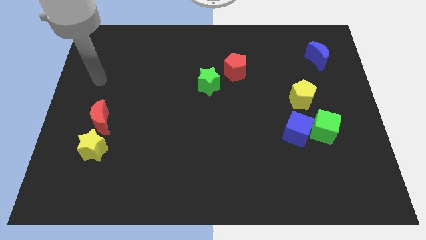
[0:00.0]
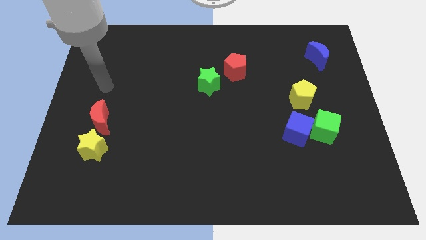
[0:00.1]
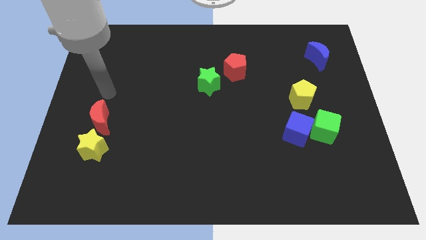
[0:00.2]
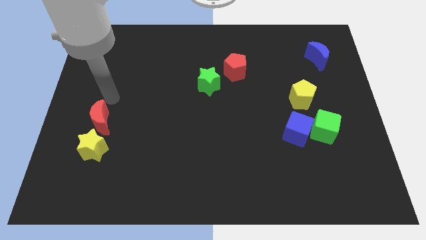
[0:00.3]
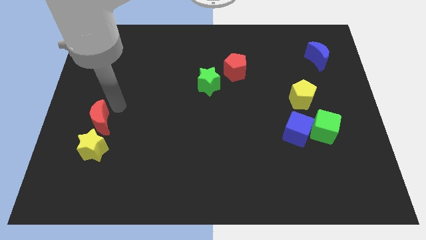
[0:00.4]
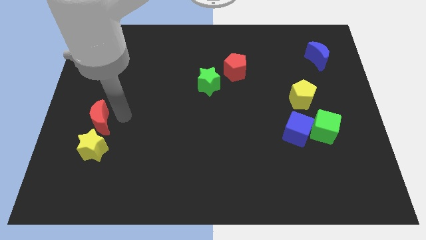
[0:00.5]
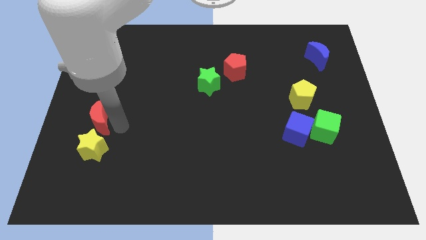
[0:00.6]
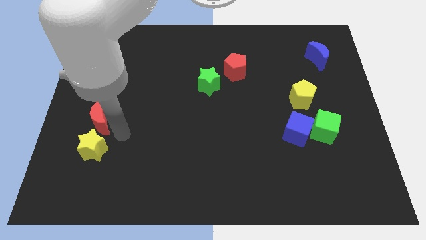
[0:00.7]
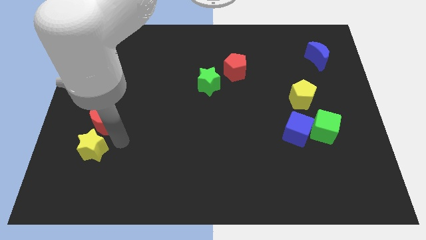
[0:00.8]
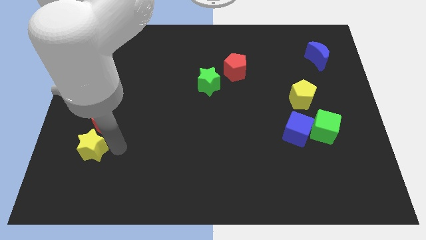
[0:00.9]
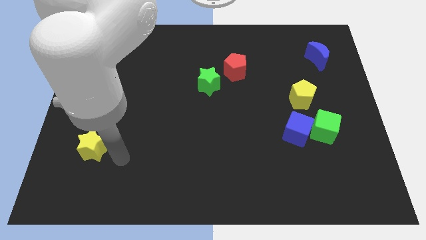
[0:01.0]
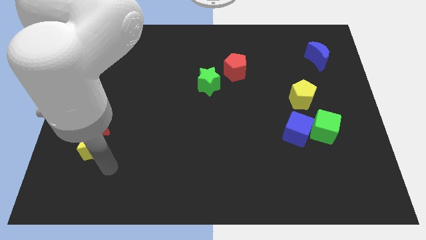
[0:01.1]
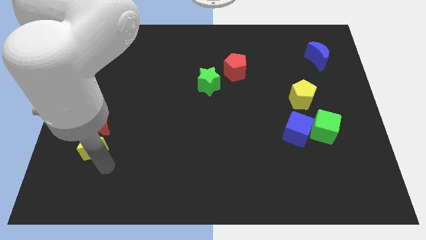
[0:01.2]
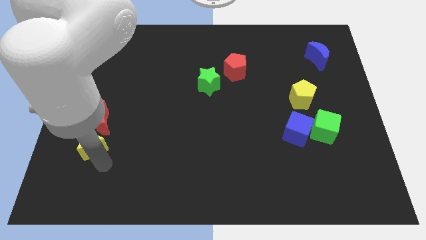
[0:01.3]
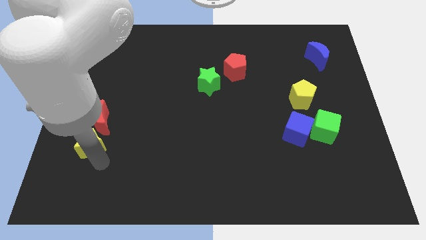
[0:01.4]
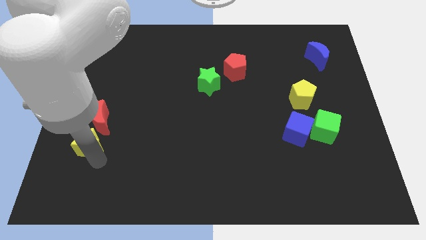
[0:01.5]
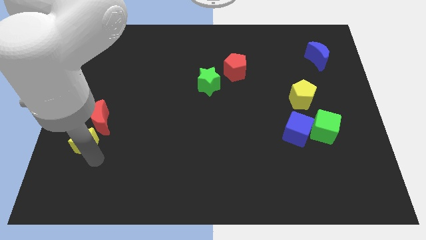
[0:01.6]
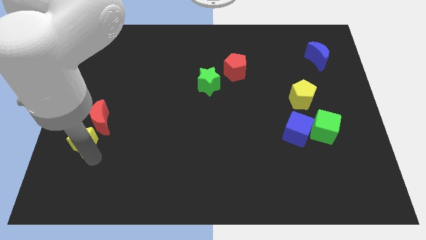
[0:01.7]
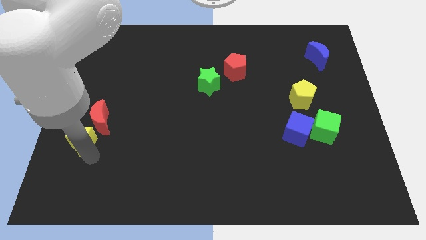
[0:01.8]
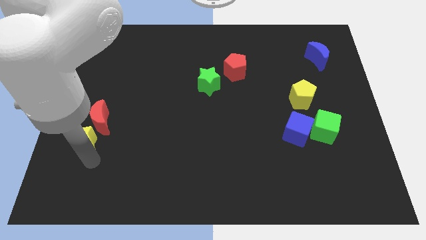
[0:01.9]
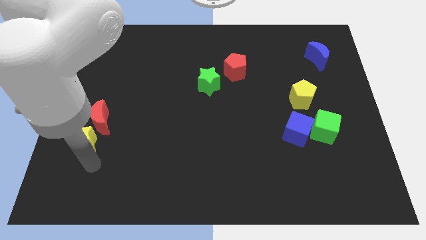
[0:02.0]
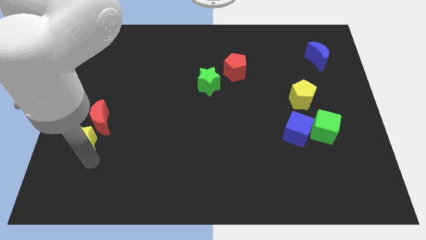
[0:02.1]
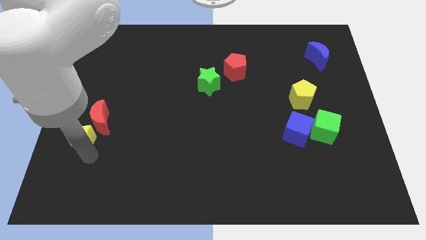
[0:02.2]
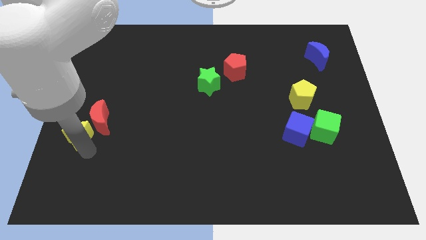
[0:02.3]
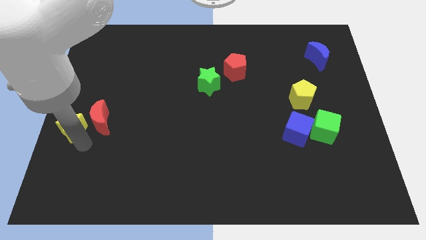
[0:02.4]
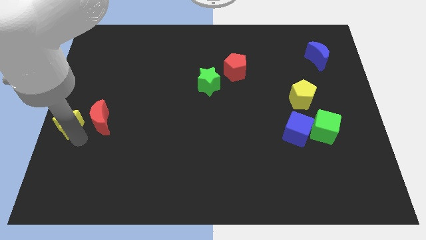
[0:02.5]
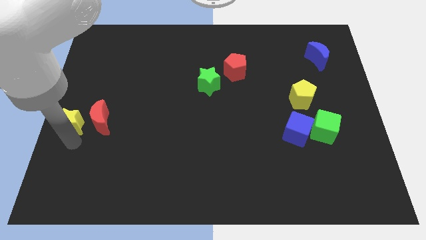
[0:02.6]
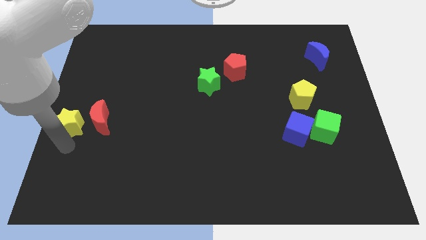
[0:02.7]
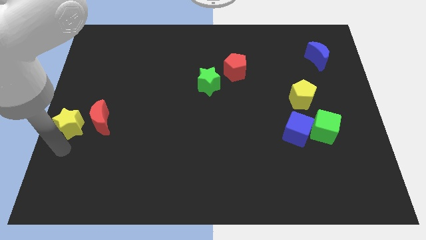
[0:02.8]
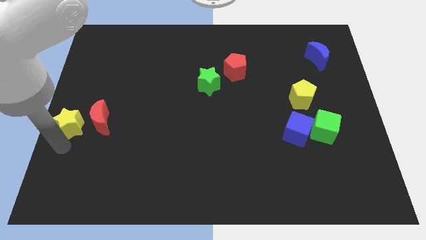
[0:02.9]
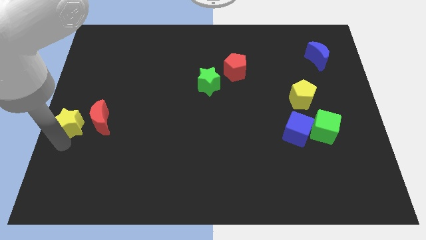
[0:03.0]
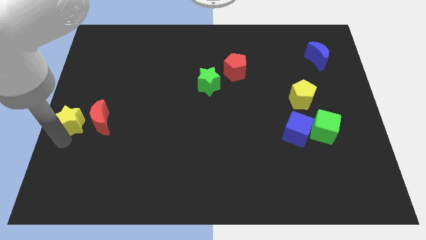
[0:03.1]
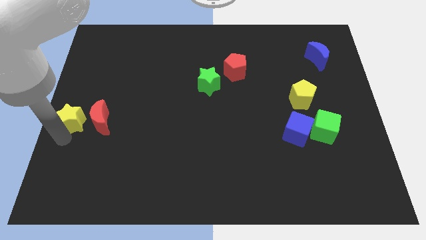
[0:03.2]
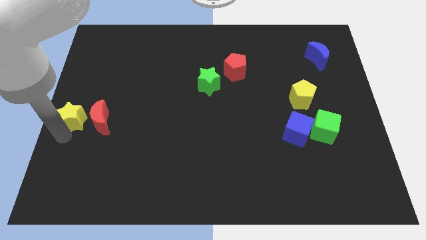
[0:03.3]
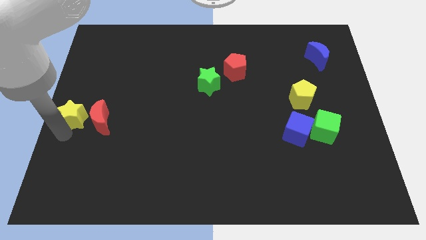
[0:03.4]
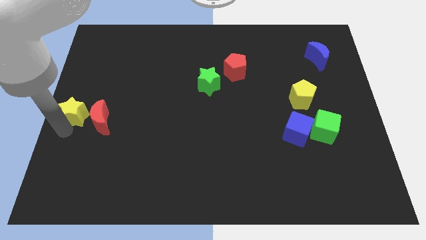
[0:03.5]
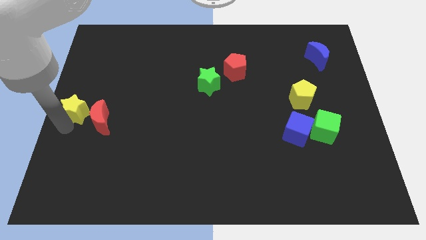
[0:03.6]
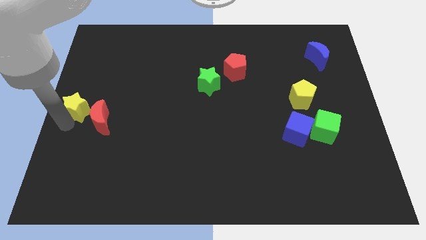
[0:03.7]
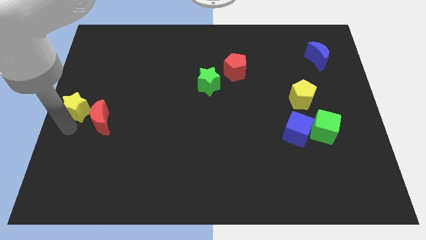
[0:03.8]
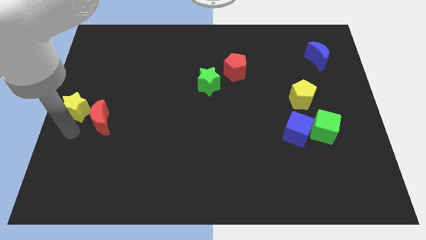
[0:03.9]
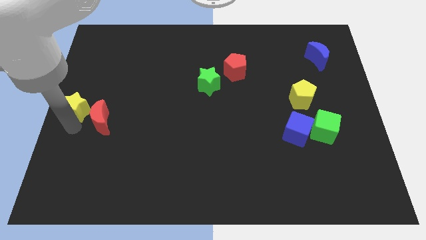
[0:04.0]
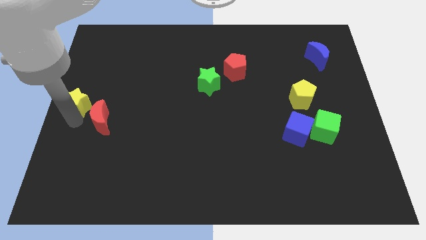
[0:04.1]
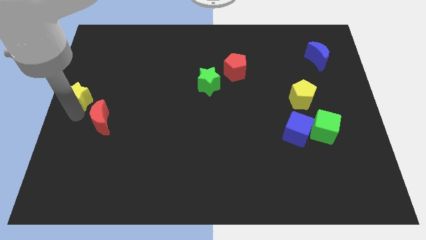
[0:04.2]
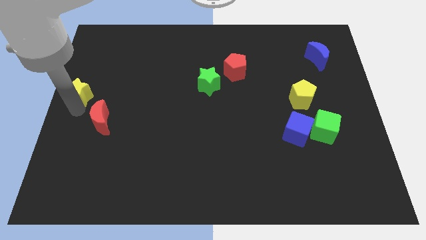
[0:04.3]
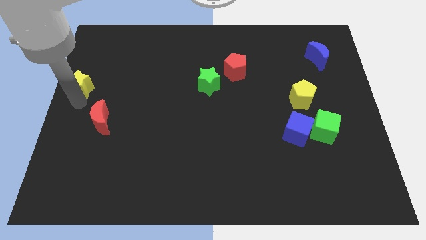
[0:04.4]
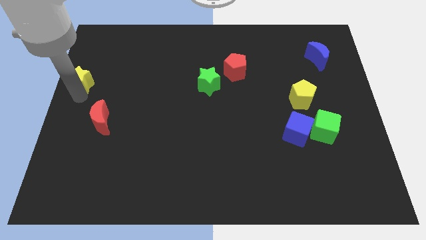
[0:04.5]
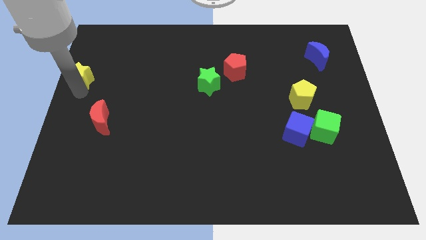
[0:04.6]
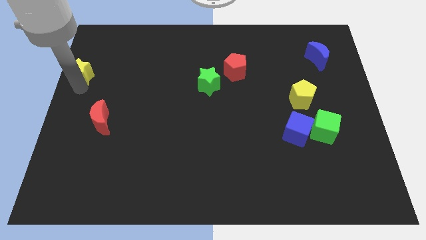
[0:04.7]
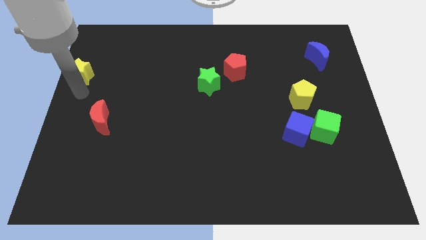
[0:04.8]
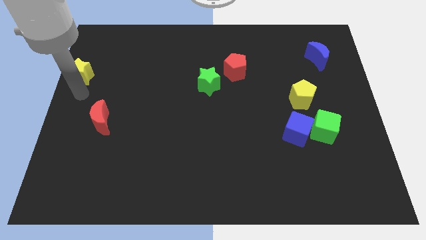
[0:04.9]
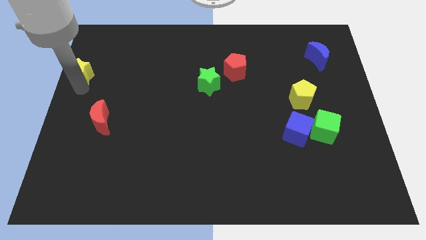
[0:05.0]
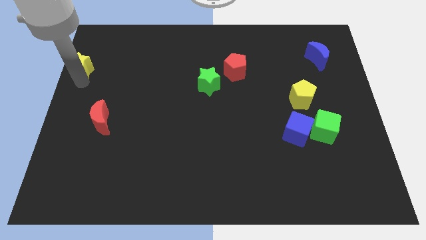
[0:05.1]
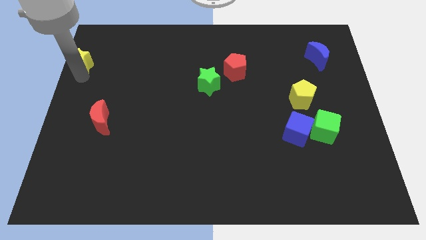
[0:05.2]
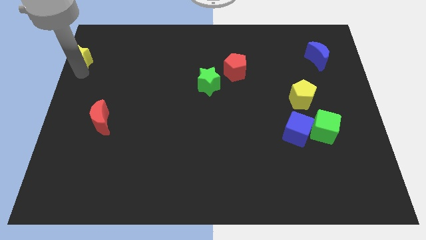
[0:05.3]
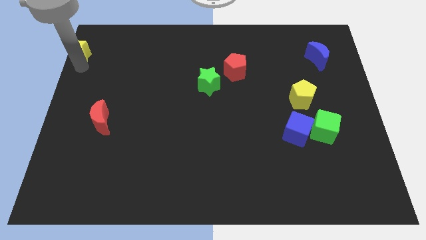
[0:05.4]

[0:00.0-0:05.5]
slide the yellow star to the top left of the board
